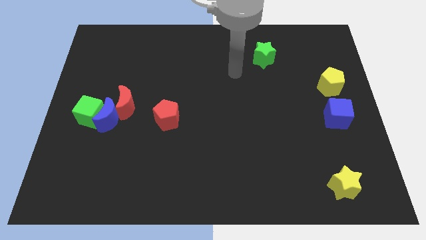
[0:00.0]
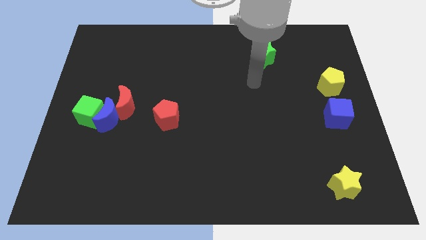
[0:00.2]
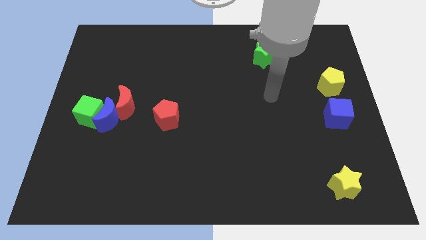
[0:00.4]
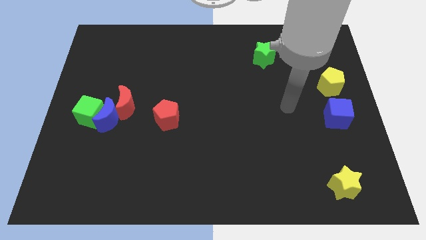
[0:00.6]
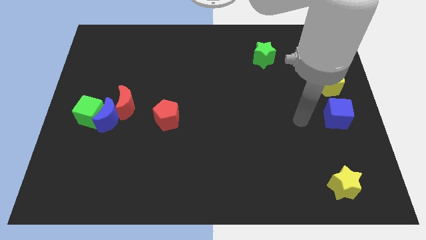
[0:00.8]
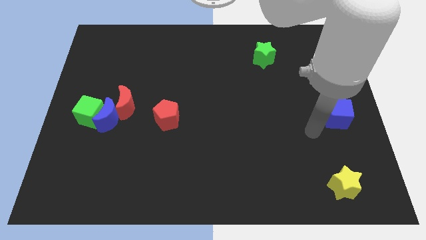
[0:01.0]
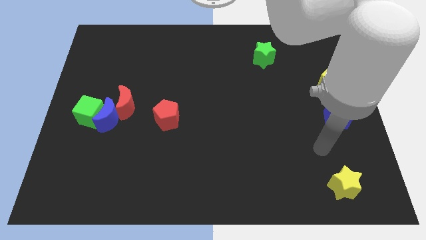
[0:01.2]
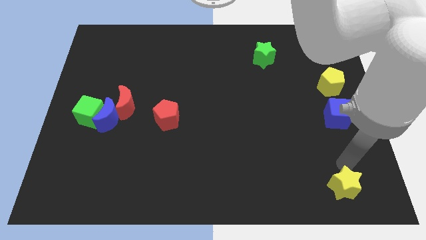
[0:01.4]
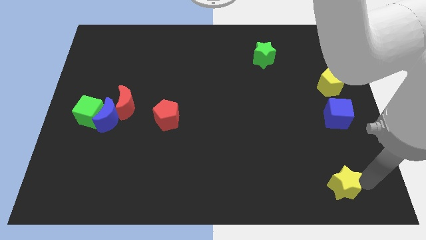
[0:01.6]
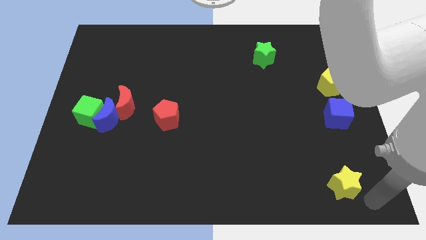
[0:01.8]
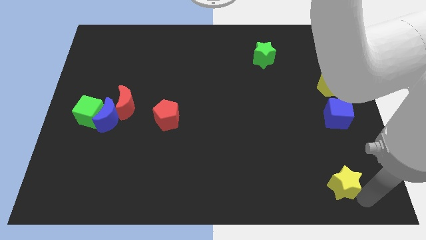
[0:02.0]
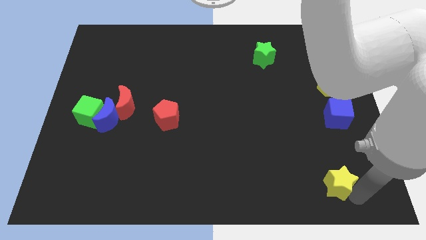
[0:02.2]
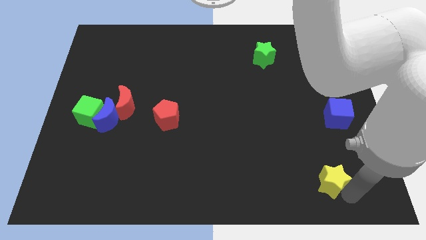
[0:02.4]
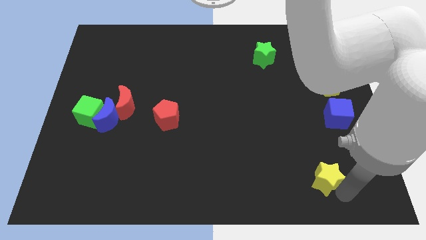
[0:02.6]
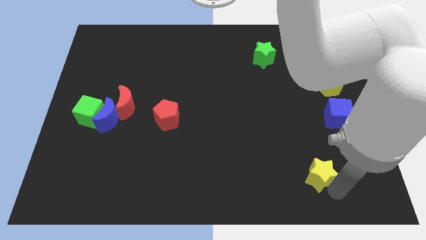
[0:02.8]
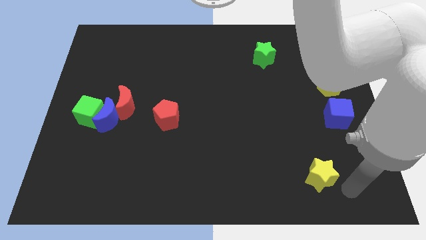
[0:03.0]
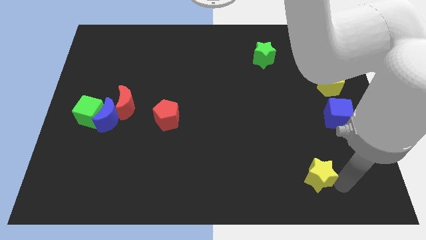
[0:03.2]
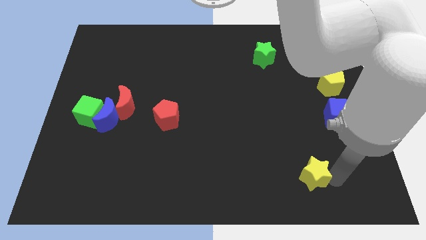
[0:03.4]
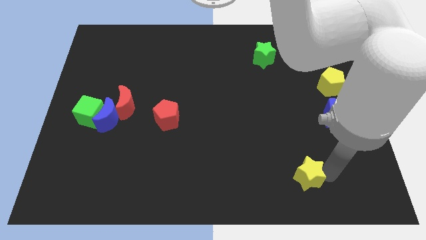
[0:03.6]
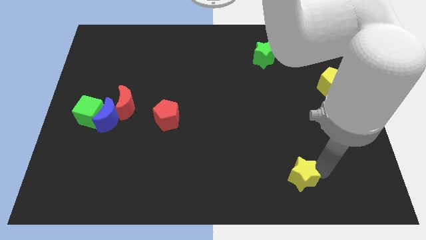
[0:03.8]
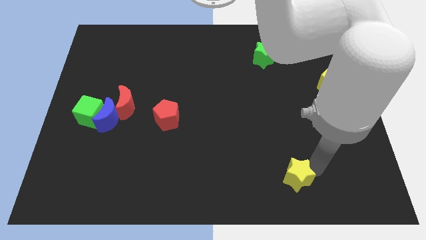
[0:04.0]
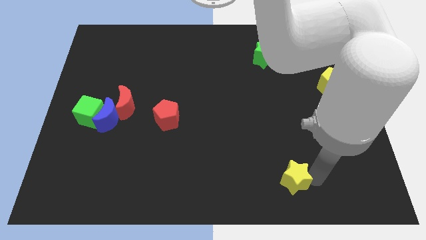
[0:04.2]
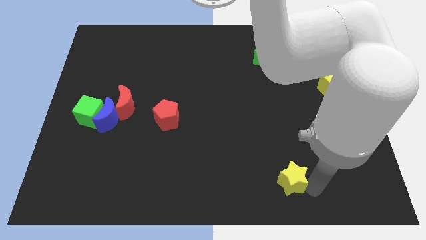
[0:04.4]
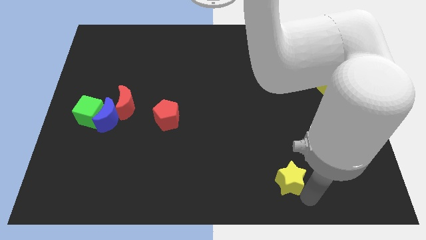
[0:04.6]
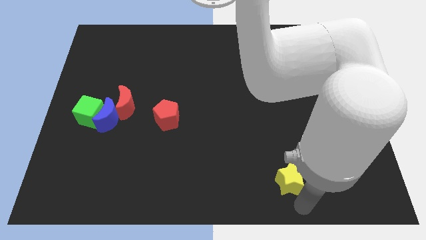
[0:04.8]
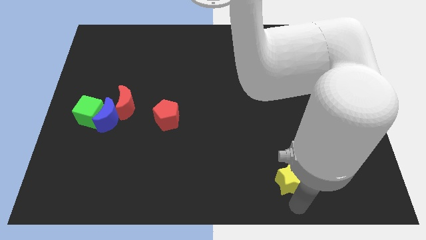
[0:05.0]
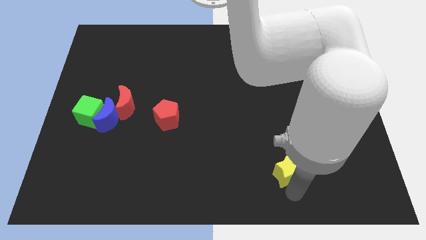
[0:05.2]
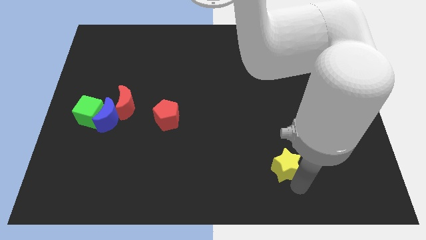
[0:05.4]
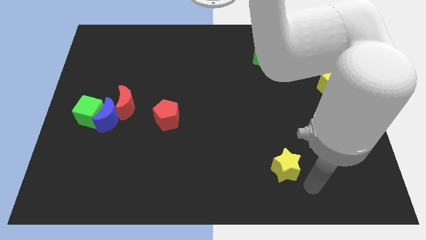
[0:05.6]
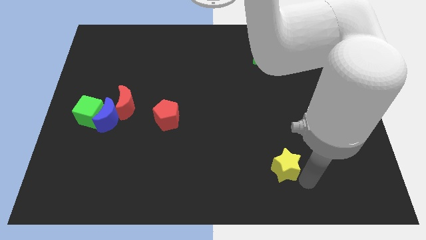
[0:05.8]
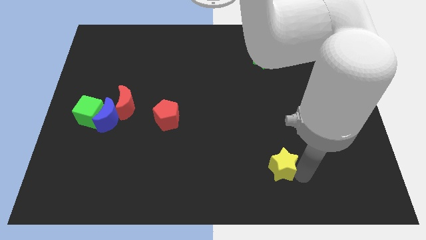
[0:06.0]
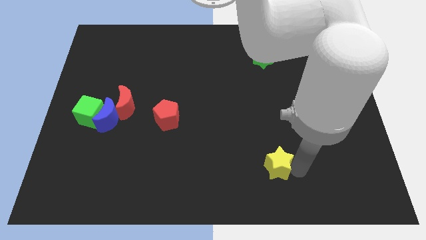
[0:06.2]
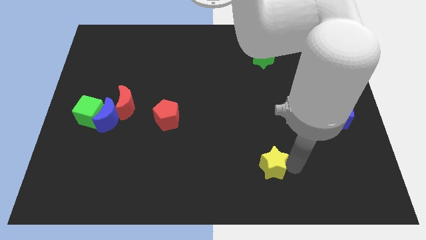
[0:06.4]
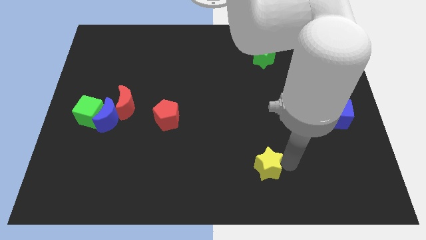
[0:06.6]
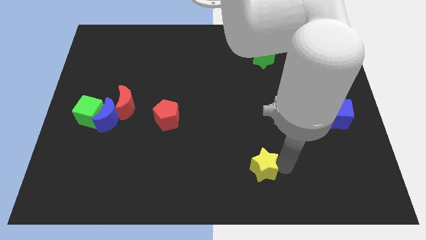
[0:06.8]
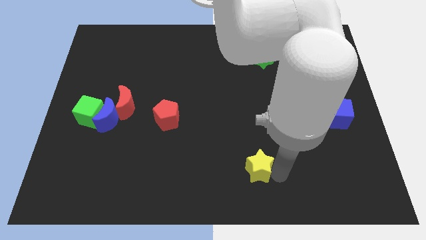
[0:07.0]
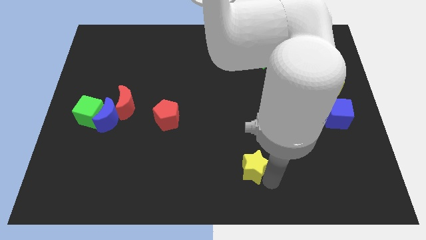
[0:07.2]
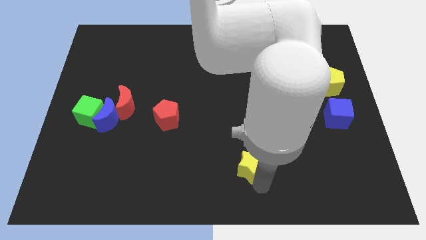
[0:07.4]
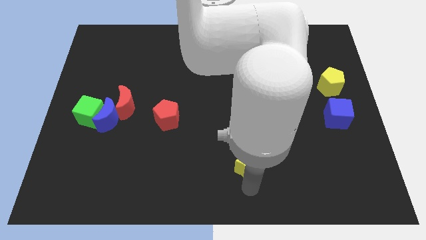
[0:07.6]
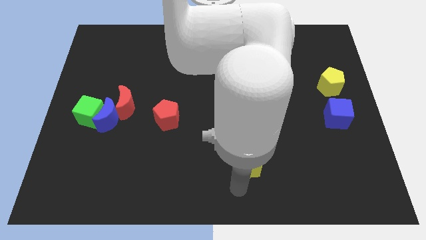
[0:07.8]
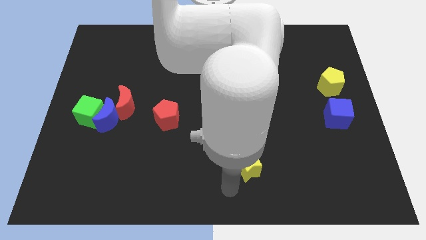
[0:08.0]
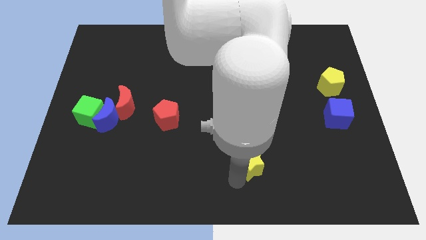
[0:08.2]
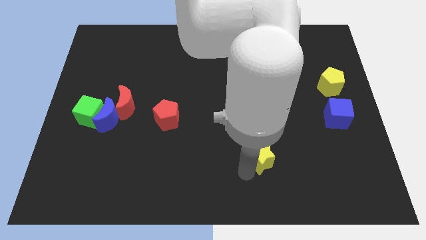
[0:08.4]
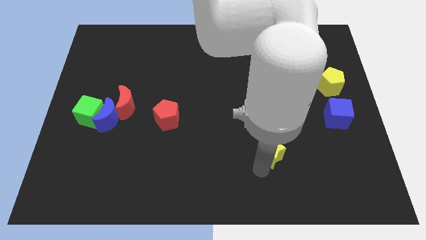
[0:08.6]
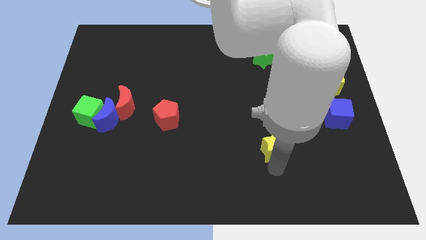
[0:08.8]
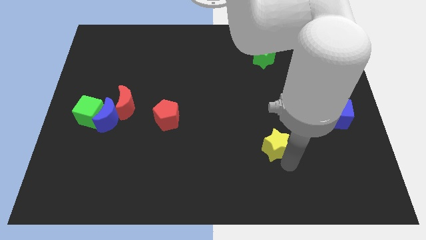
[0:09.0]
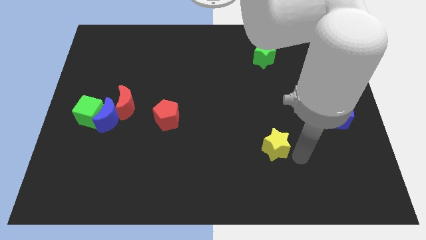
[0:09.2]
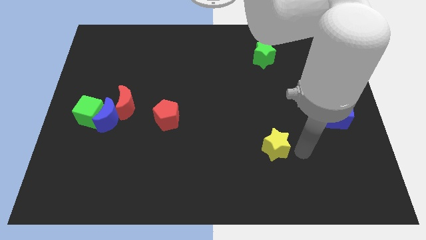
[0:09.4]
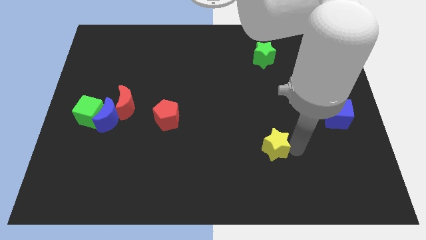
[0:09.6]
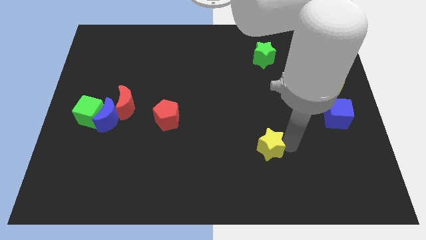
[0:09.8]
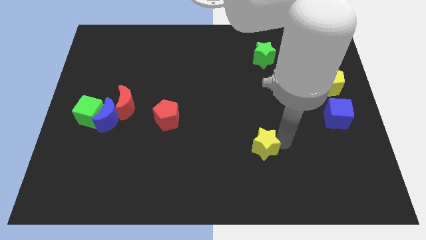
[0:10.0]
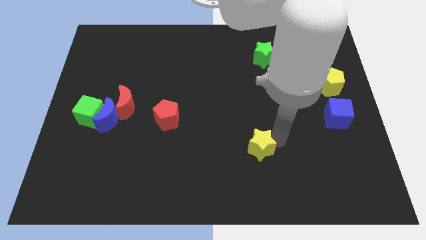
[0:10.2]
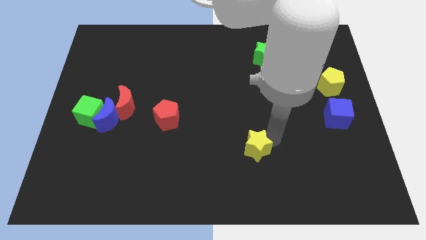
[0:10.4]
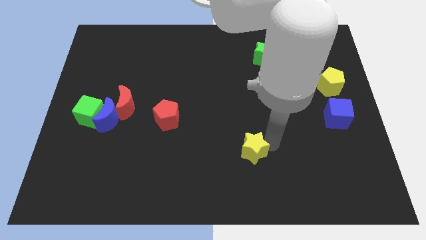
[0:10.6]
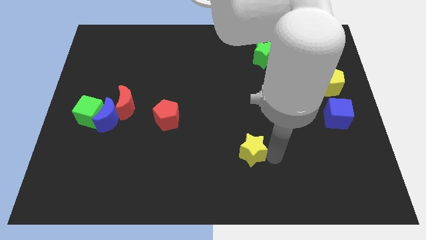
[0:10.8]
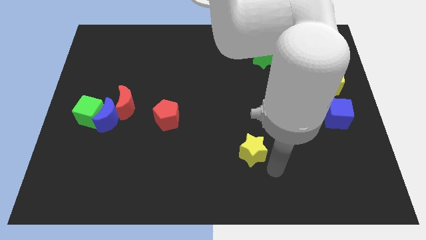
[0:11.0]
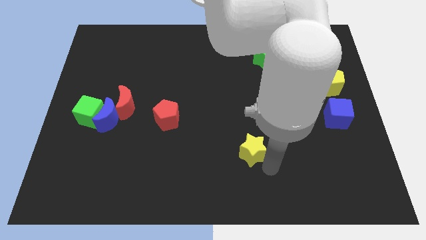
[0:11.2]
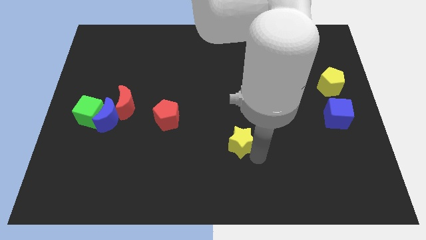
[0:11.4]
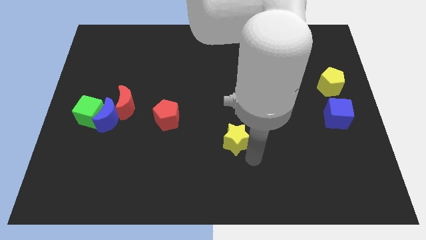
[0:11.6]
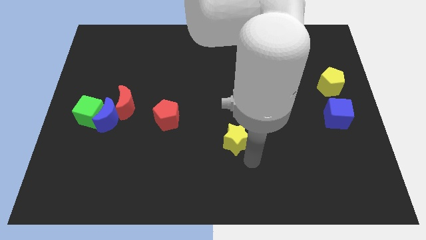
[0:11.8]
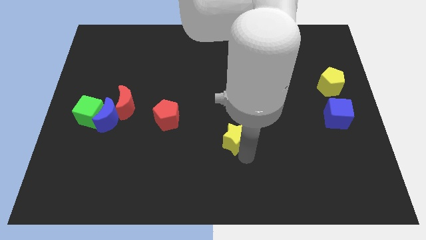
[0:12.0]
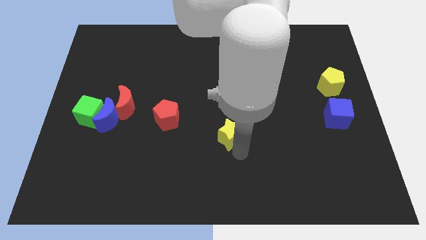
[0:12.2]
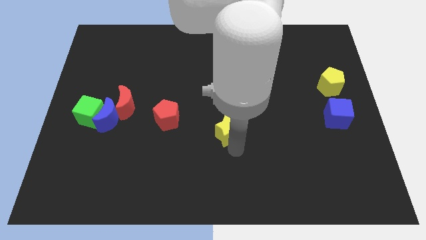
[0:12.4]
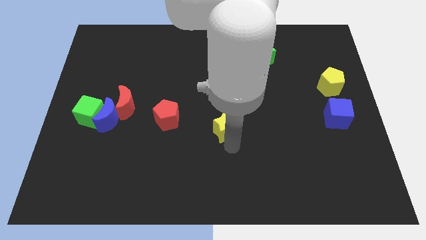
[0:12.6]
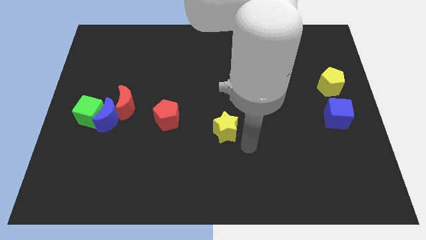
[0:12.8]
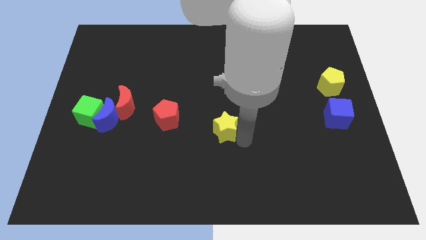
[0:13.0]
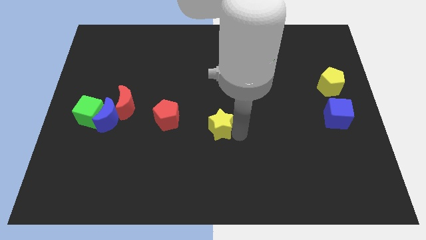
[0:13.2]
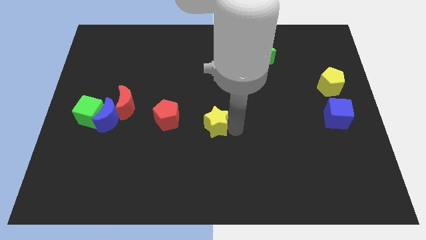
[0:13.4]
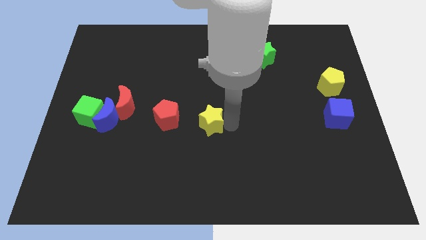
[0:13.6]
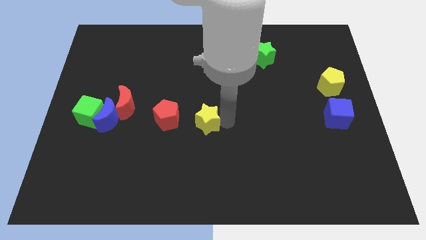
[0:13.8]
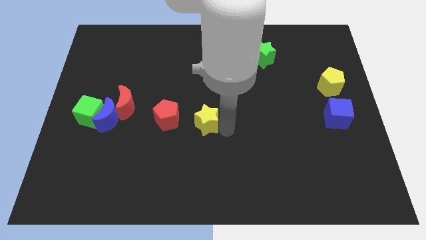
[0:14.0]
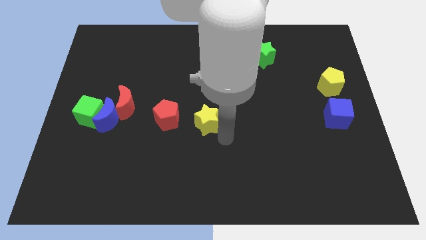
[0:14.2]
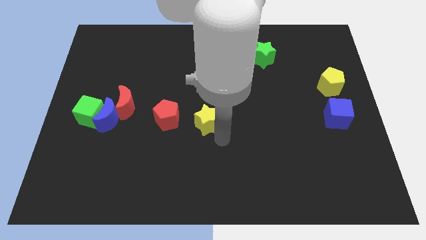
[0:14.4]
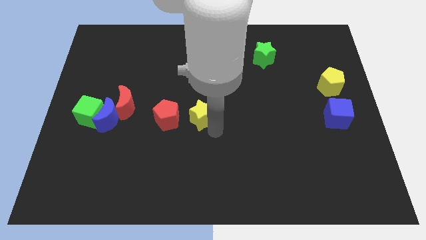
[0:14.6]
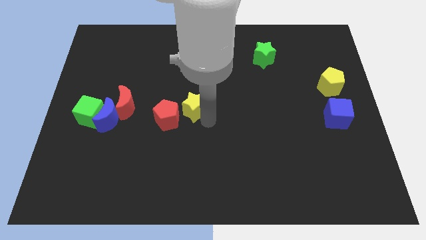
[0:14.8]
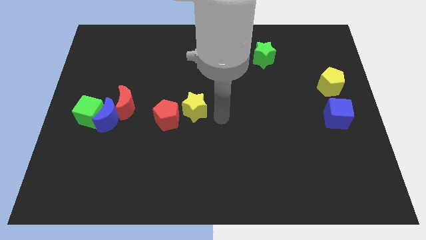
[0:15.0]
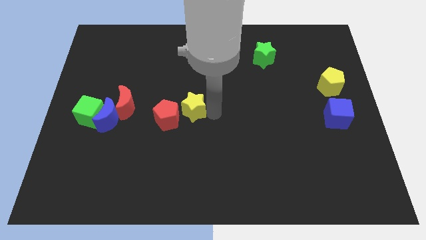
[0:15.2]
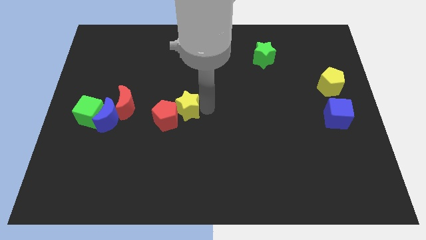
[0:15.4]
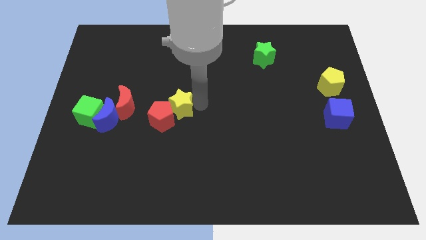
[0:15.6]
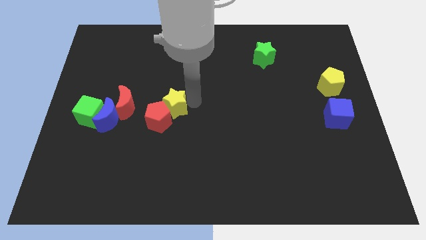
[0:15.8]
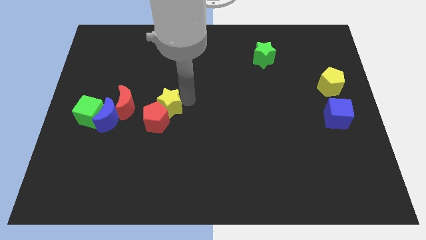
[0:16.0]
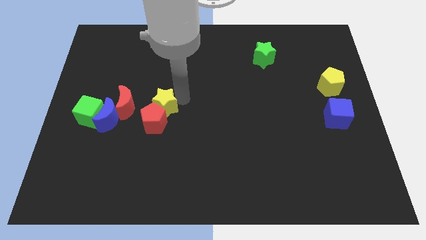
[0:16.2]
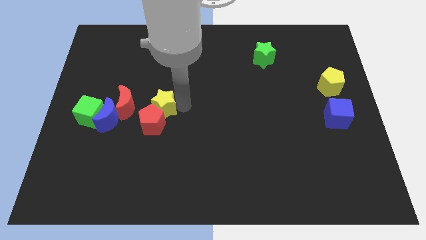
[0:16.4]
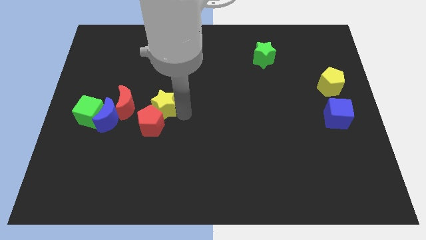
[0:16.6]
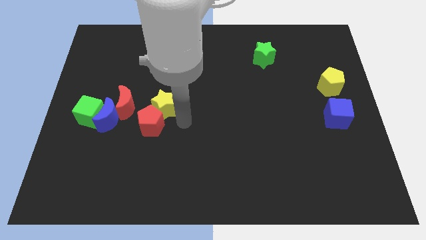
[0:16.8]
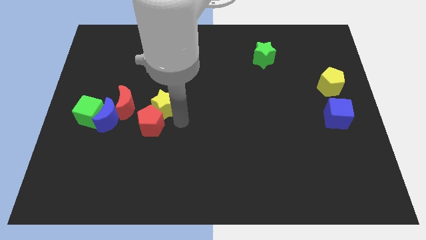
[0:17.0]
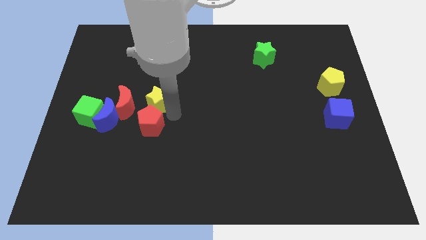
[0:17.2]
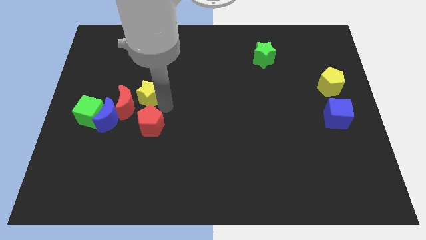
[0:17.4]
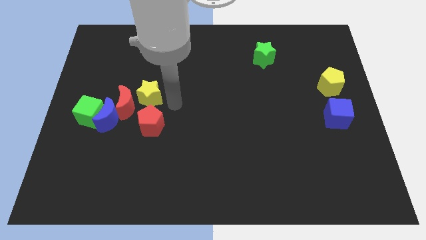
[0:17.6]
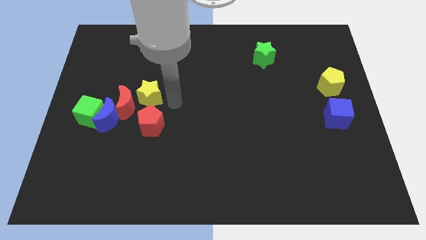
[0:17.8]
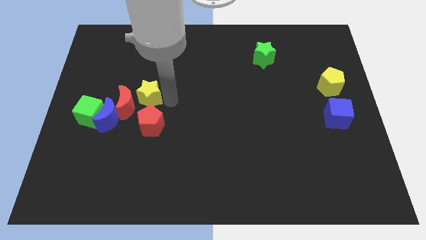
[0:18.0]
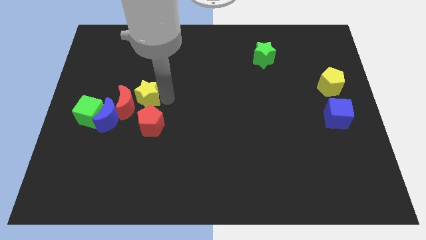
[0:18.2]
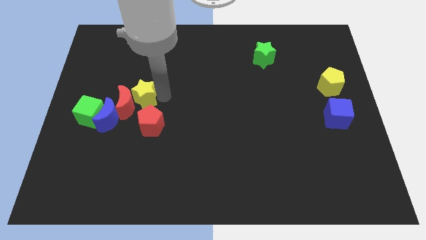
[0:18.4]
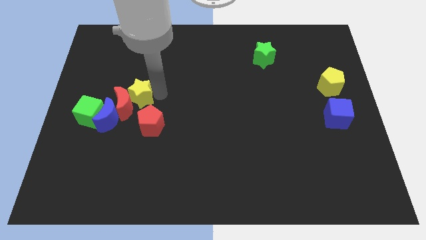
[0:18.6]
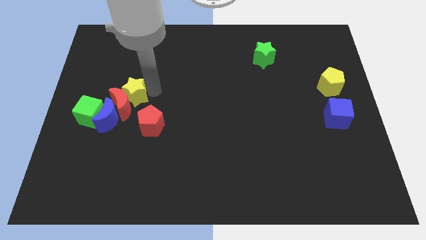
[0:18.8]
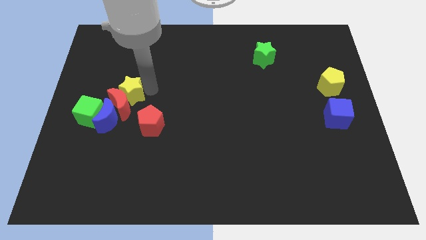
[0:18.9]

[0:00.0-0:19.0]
put the yellow star diagonally up and to the left of the red moon
